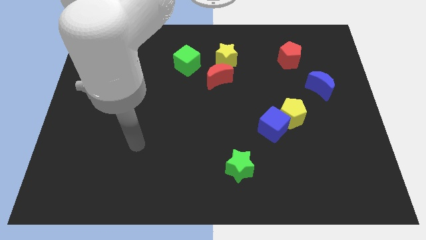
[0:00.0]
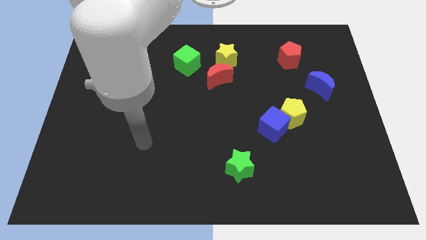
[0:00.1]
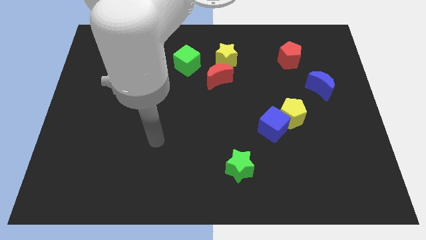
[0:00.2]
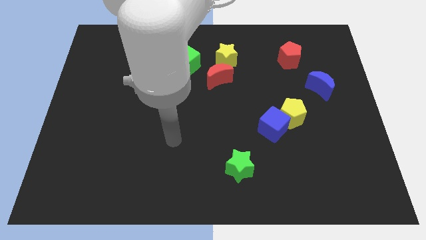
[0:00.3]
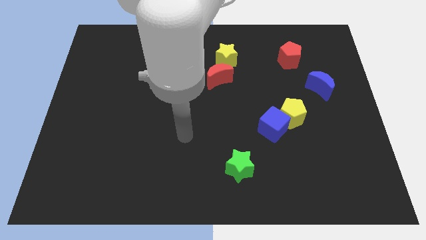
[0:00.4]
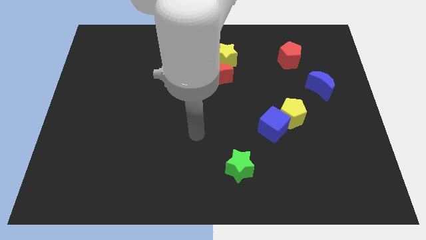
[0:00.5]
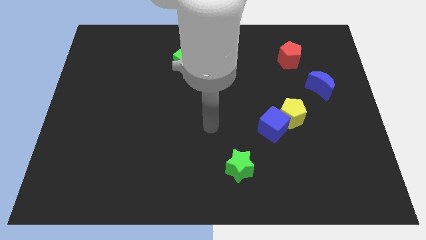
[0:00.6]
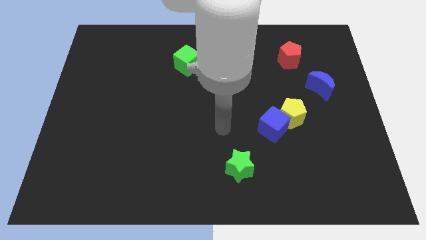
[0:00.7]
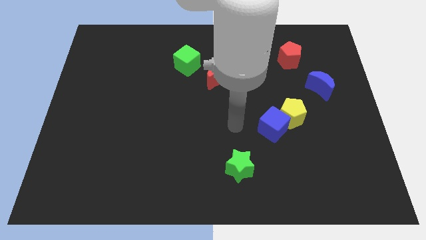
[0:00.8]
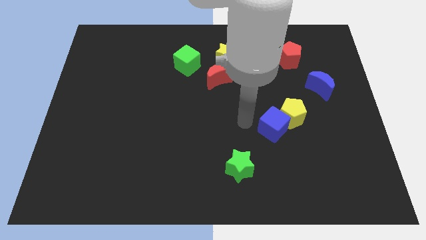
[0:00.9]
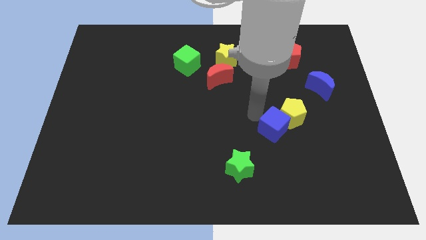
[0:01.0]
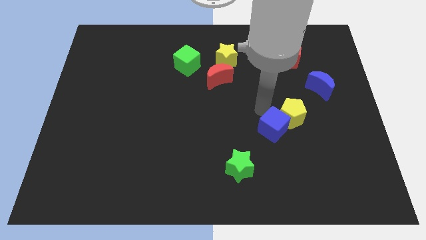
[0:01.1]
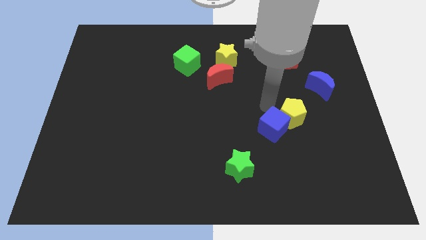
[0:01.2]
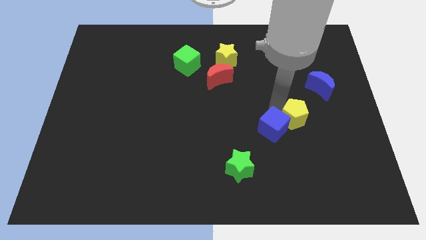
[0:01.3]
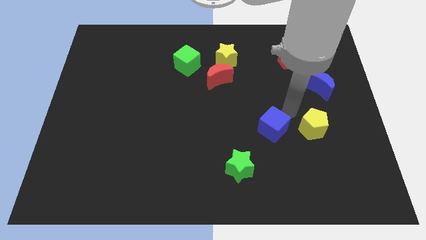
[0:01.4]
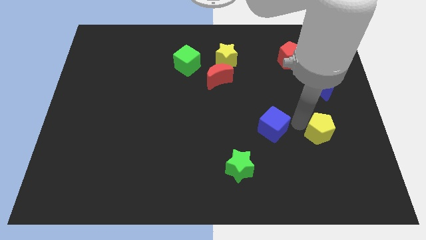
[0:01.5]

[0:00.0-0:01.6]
move the blue cube away from the yellow pentagon

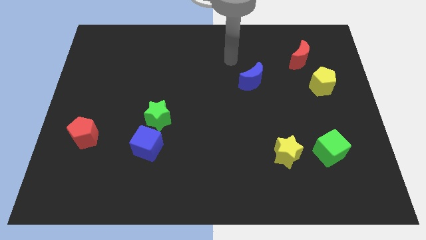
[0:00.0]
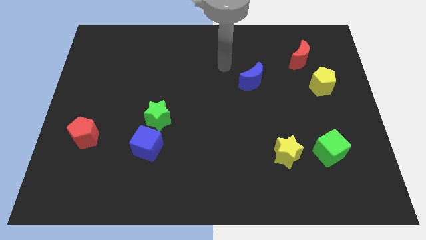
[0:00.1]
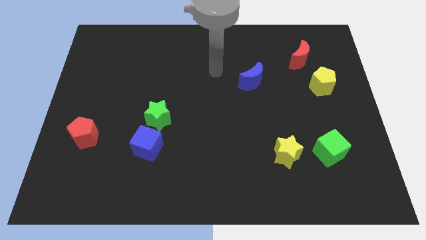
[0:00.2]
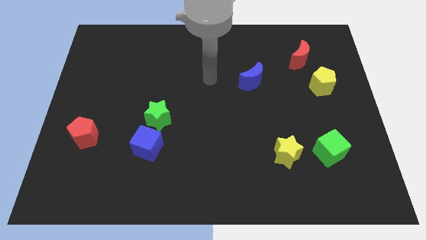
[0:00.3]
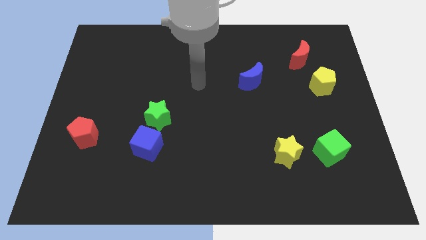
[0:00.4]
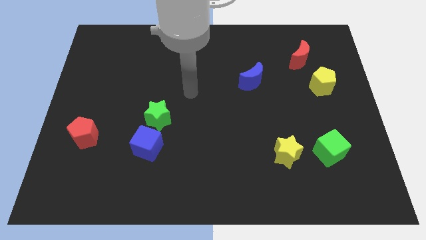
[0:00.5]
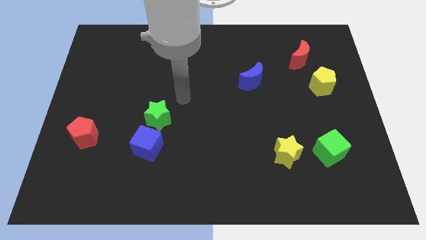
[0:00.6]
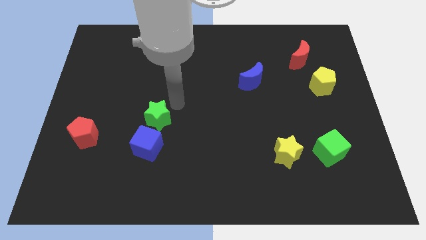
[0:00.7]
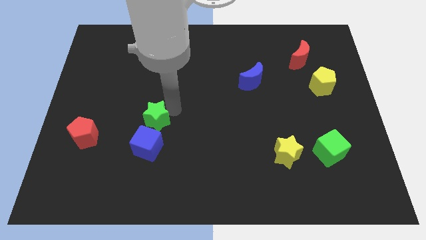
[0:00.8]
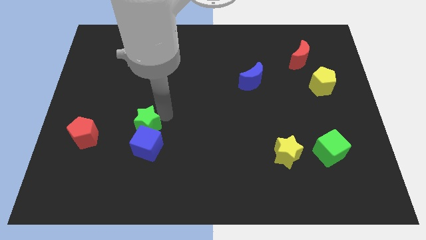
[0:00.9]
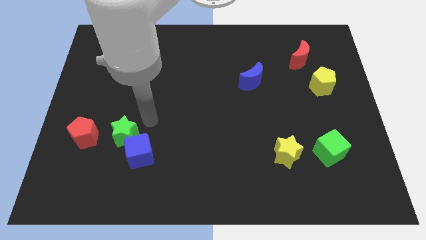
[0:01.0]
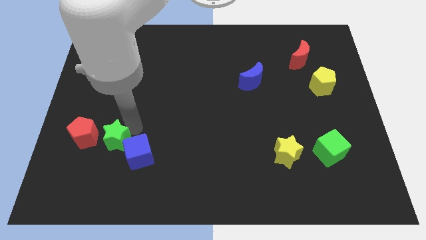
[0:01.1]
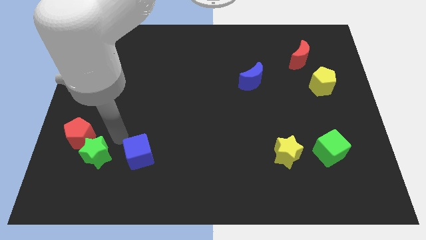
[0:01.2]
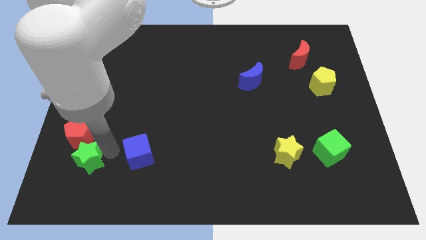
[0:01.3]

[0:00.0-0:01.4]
pull the blue cube apart from the green star

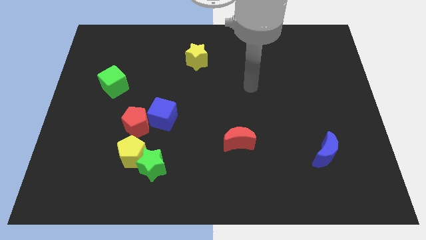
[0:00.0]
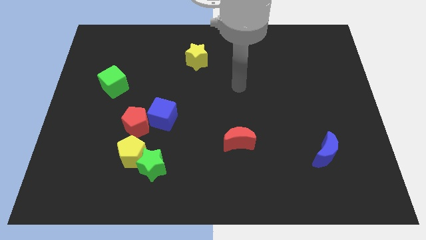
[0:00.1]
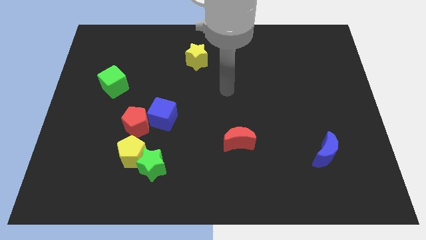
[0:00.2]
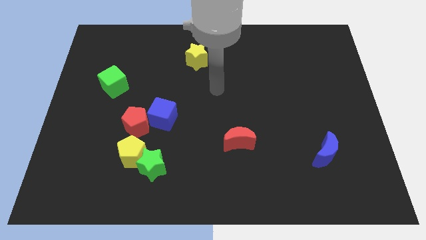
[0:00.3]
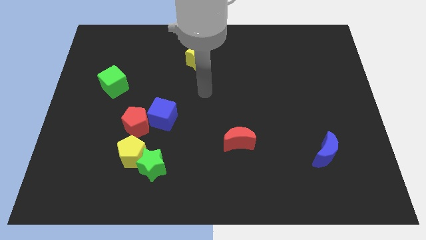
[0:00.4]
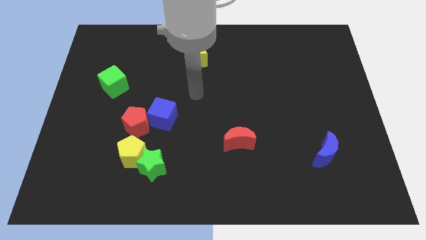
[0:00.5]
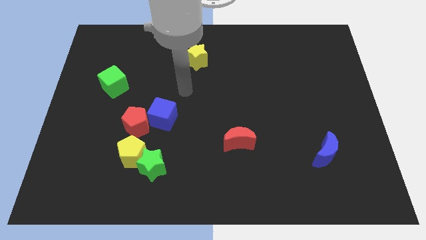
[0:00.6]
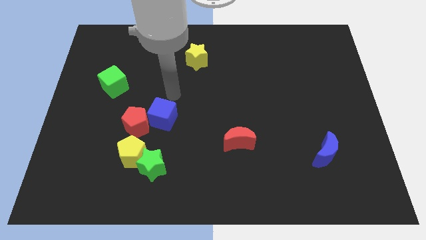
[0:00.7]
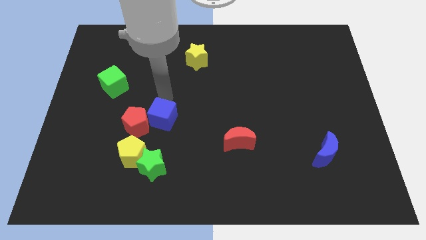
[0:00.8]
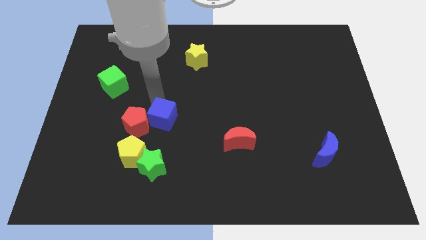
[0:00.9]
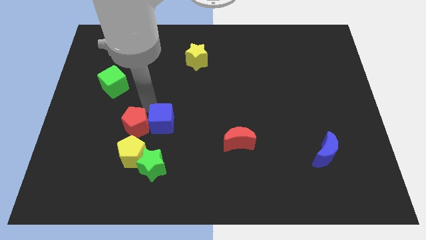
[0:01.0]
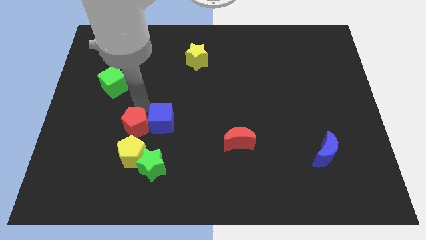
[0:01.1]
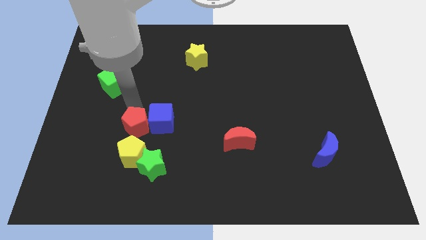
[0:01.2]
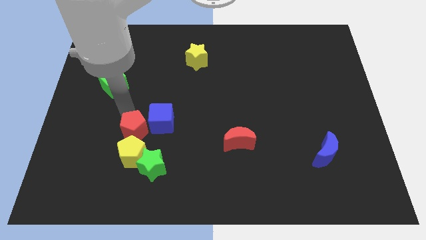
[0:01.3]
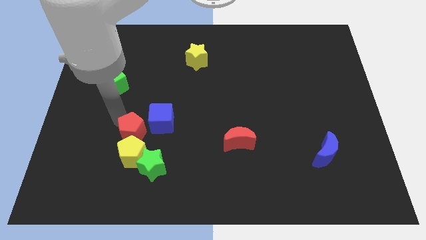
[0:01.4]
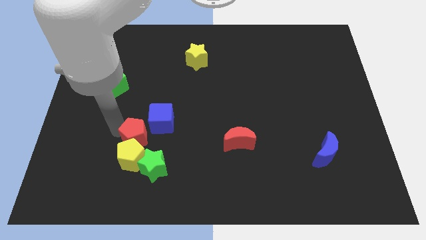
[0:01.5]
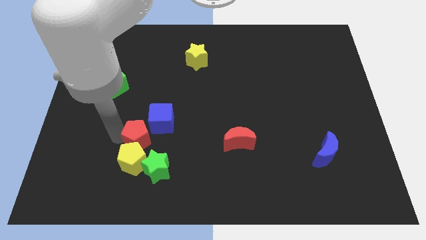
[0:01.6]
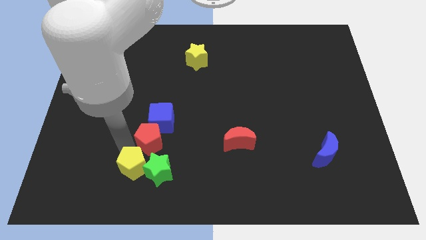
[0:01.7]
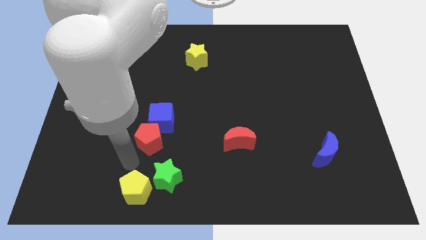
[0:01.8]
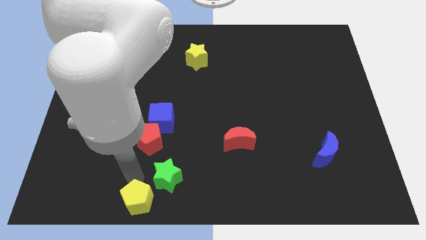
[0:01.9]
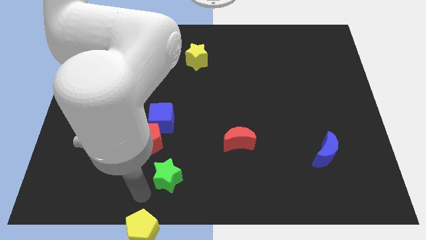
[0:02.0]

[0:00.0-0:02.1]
separate the green star from the yellow pentagon

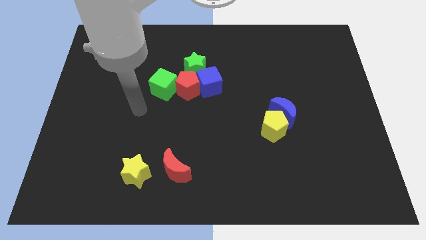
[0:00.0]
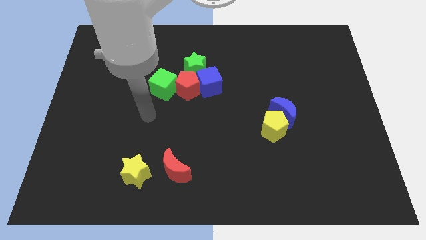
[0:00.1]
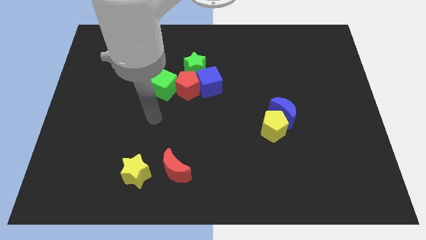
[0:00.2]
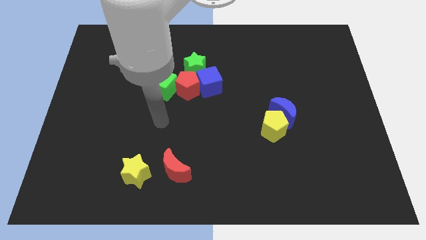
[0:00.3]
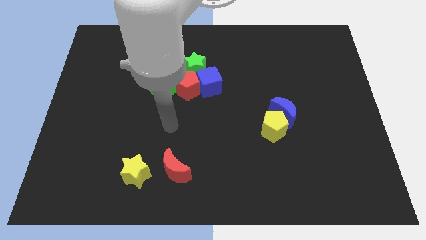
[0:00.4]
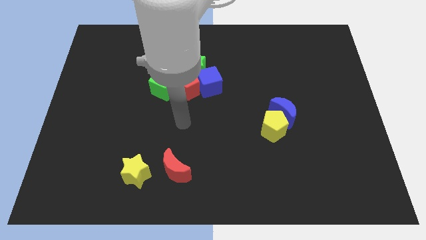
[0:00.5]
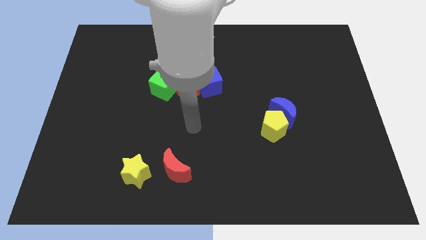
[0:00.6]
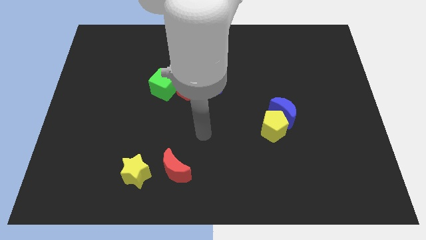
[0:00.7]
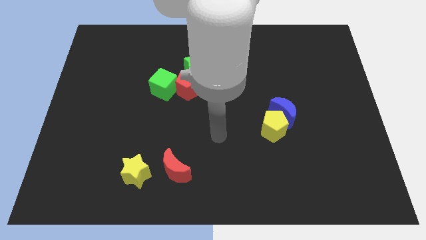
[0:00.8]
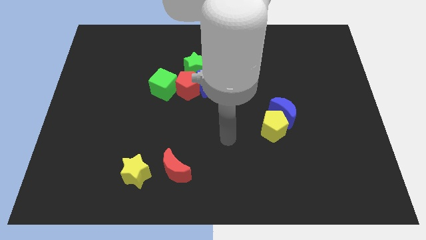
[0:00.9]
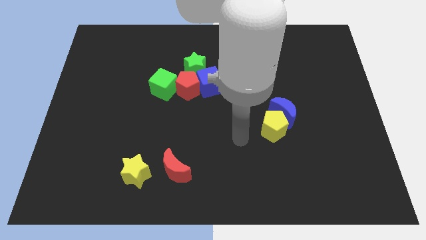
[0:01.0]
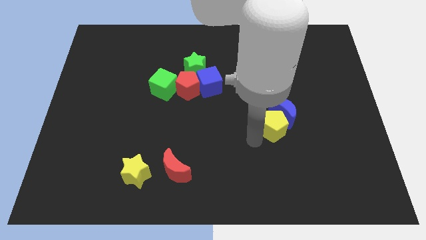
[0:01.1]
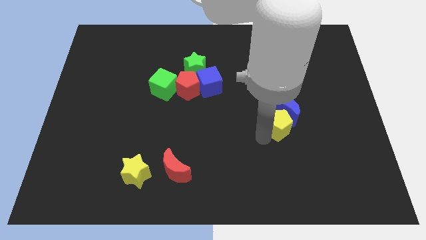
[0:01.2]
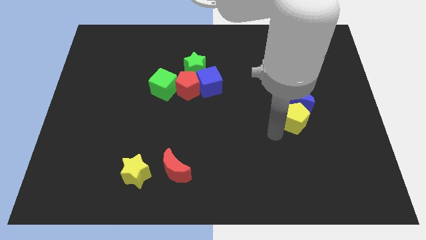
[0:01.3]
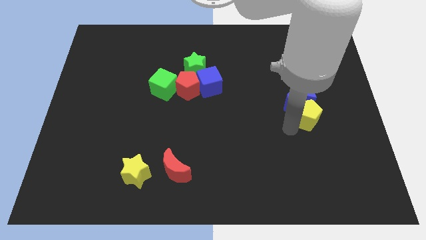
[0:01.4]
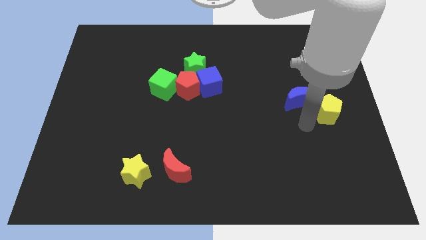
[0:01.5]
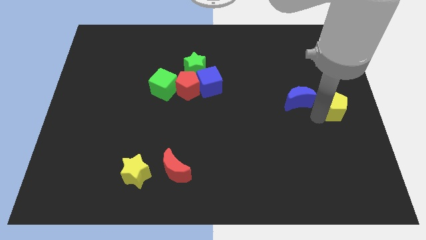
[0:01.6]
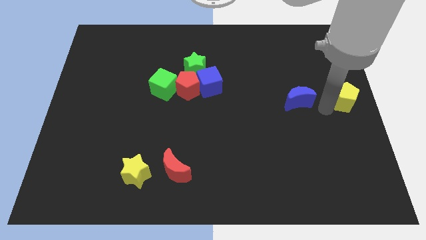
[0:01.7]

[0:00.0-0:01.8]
move the blue moon away from the yellow pentagon

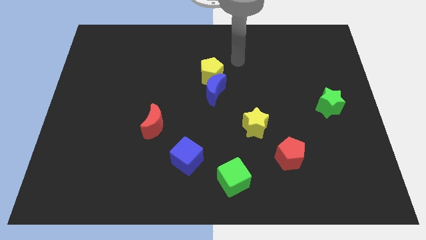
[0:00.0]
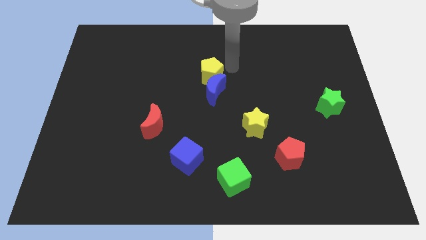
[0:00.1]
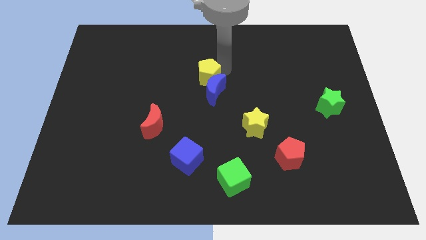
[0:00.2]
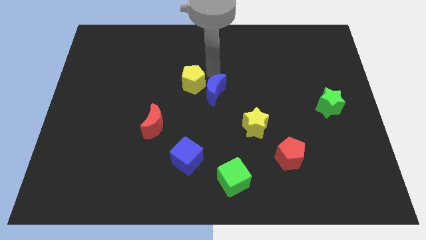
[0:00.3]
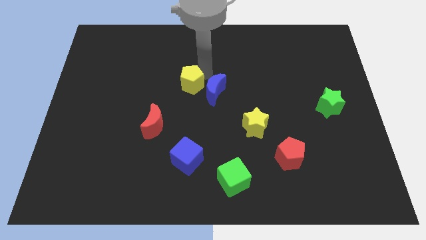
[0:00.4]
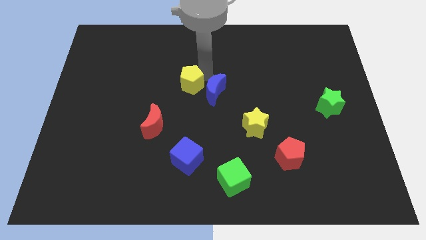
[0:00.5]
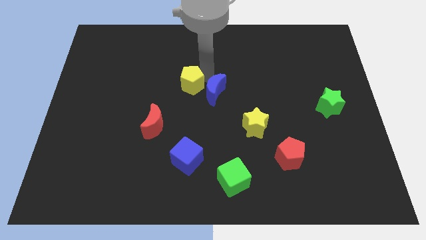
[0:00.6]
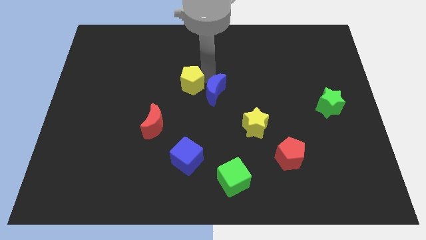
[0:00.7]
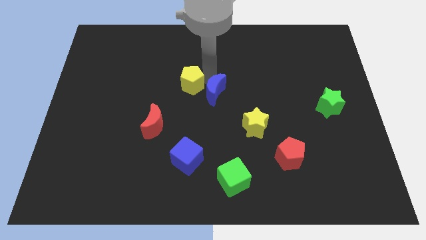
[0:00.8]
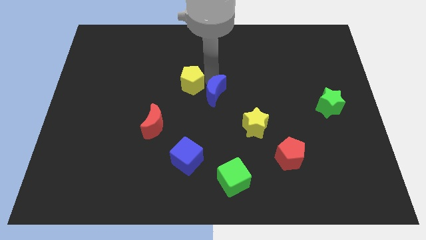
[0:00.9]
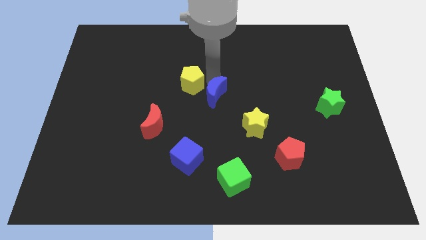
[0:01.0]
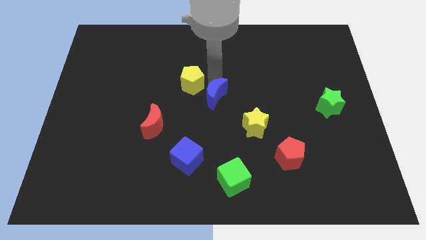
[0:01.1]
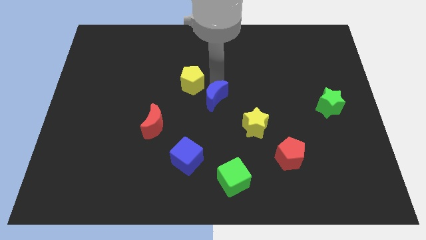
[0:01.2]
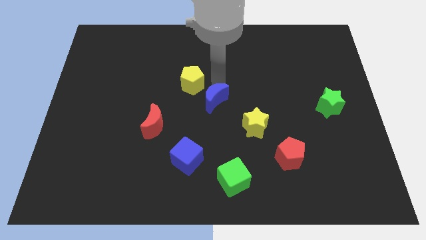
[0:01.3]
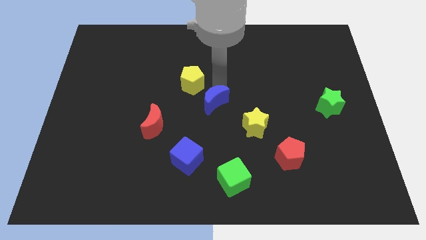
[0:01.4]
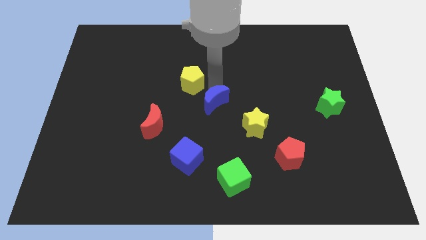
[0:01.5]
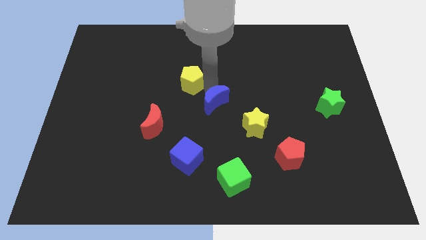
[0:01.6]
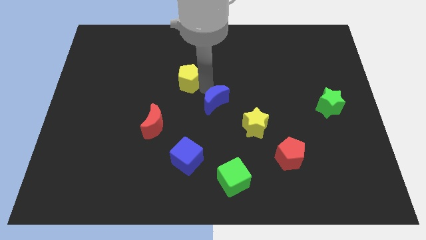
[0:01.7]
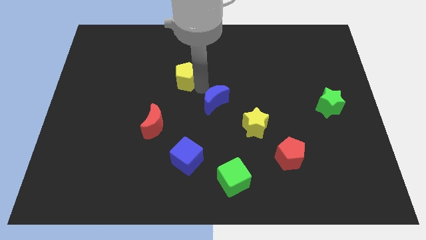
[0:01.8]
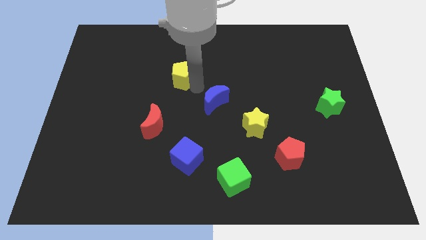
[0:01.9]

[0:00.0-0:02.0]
pull the blue moon apart from the yellow pentagon

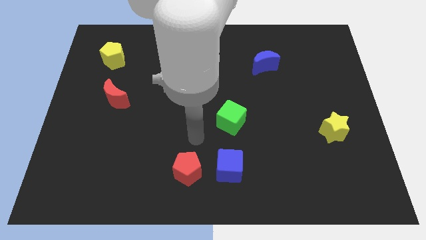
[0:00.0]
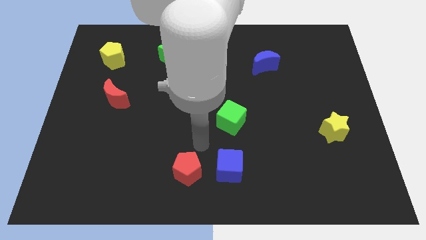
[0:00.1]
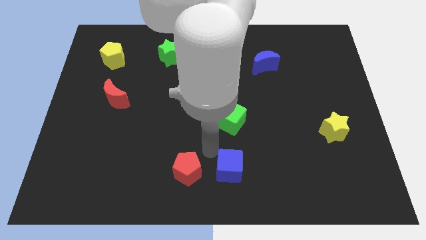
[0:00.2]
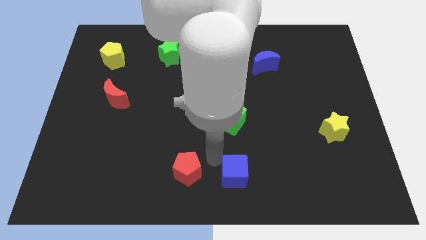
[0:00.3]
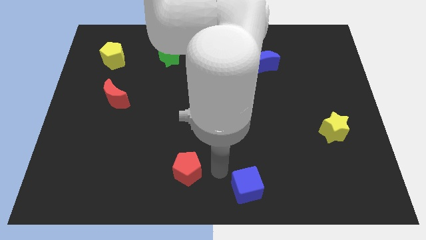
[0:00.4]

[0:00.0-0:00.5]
separate the red pentagon from the blue cube

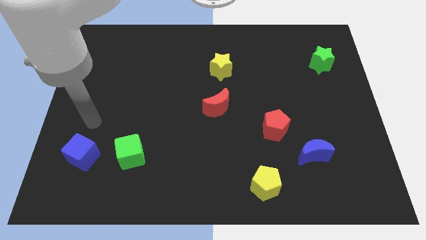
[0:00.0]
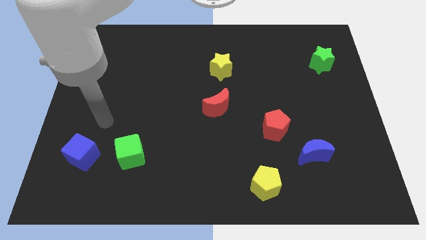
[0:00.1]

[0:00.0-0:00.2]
move the red pentagon away from the blue moon
